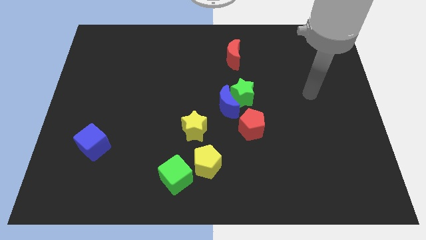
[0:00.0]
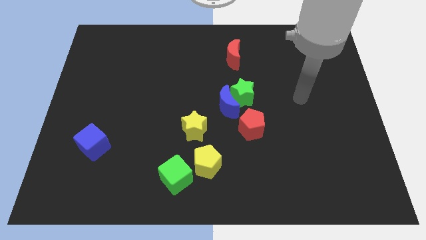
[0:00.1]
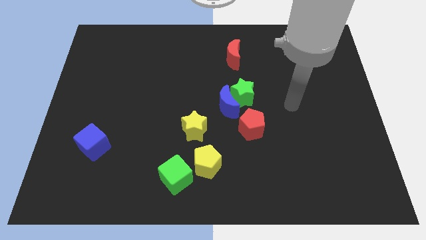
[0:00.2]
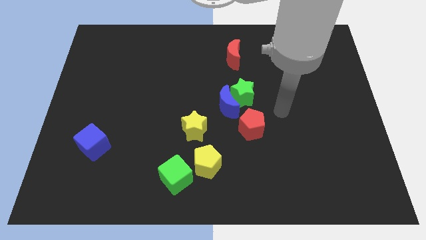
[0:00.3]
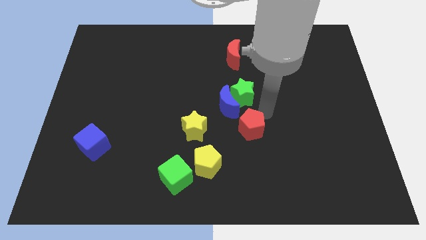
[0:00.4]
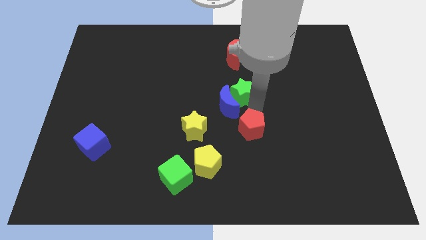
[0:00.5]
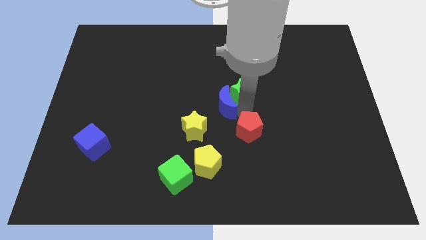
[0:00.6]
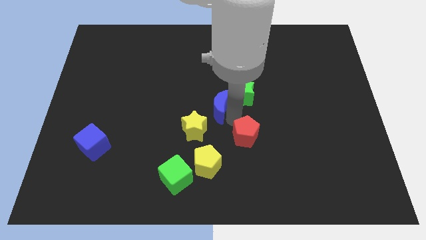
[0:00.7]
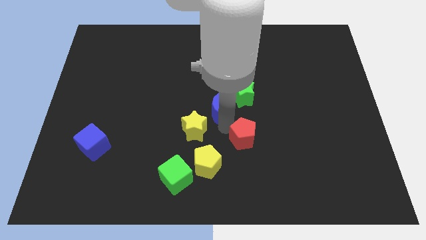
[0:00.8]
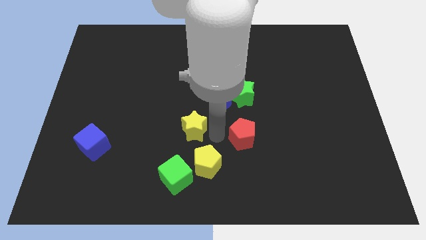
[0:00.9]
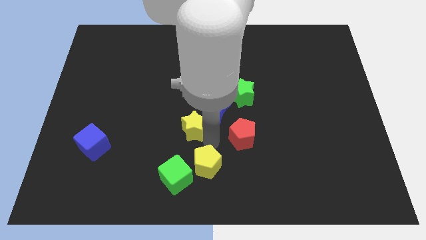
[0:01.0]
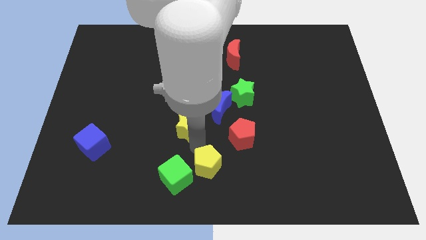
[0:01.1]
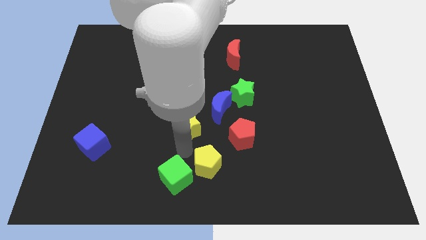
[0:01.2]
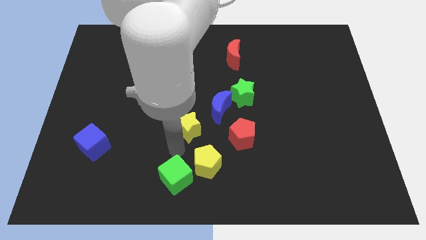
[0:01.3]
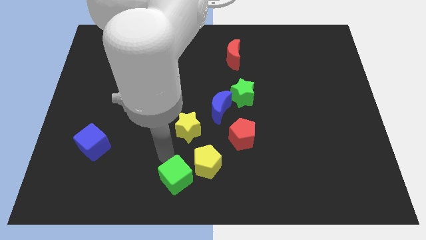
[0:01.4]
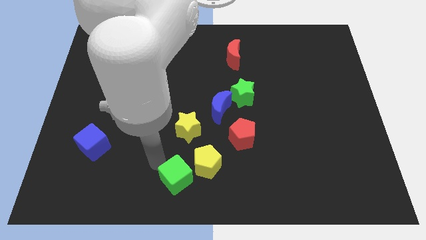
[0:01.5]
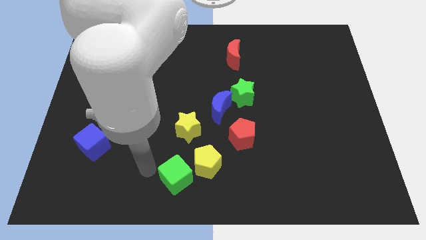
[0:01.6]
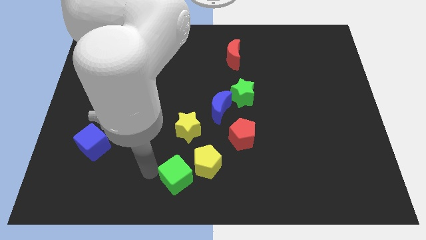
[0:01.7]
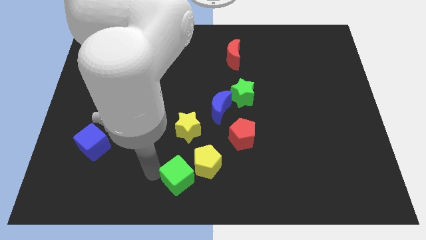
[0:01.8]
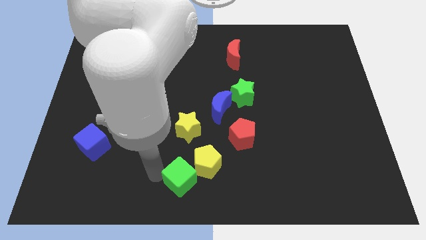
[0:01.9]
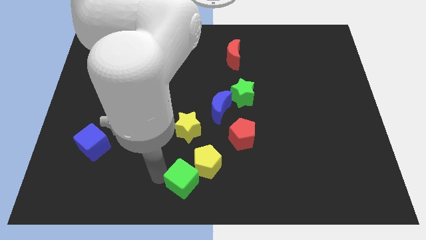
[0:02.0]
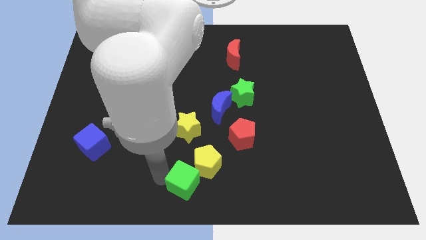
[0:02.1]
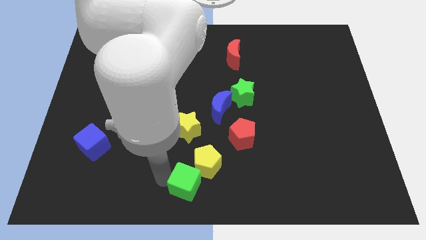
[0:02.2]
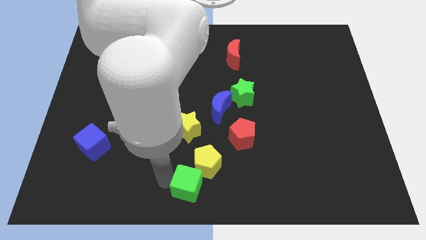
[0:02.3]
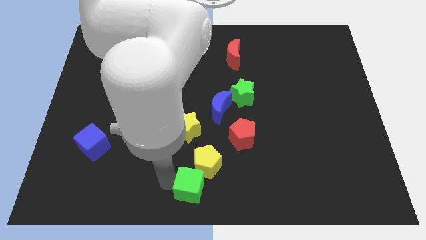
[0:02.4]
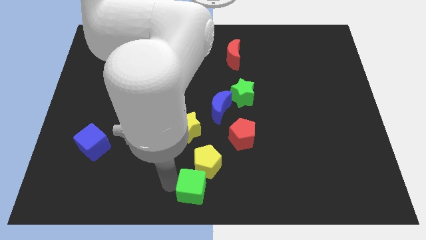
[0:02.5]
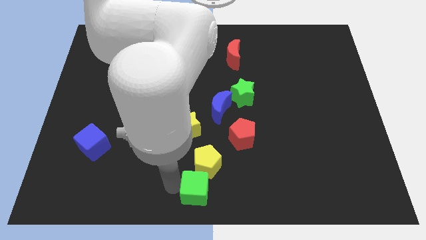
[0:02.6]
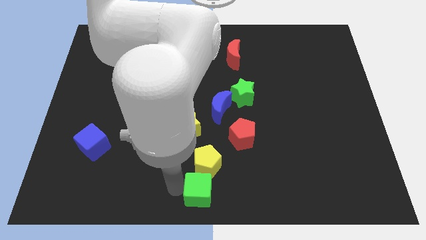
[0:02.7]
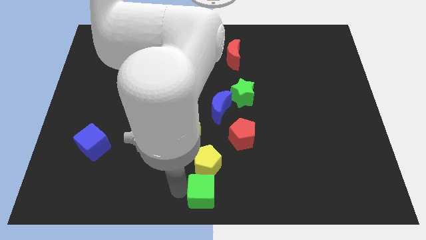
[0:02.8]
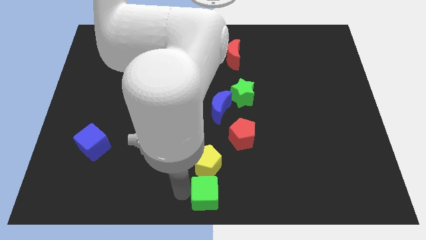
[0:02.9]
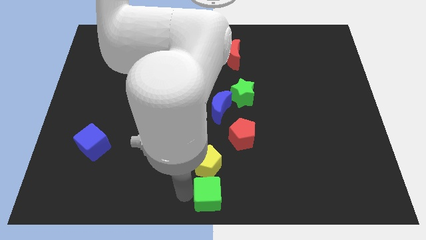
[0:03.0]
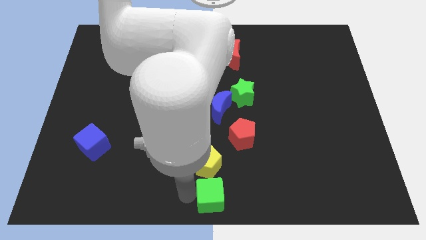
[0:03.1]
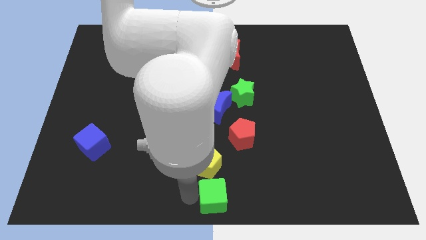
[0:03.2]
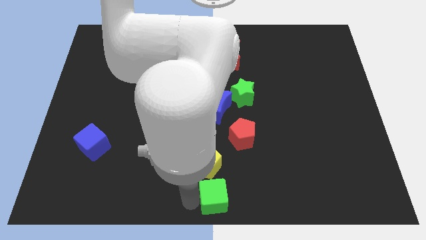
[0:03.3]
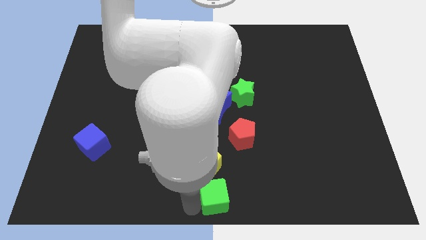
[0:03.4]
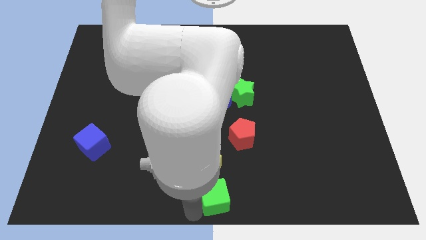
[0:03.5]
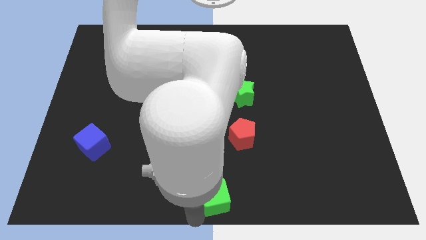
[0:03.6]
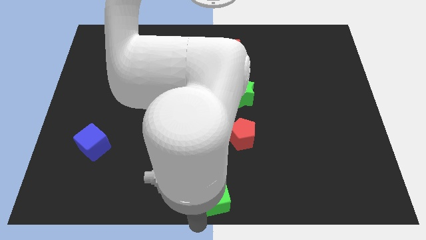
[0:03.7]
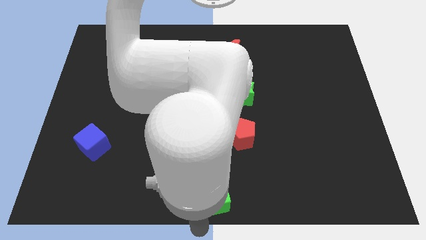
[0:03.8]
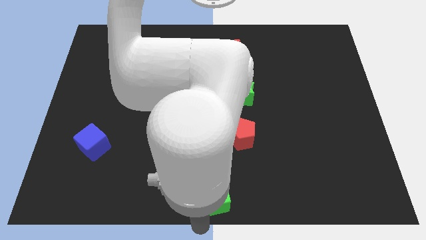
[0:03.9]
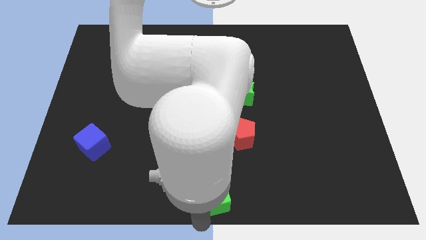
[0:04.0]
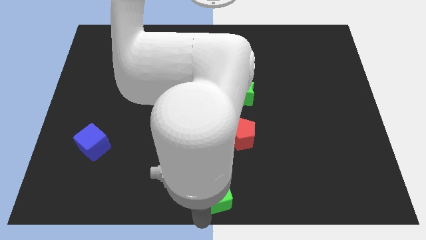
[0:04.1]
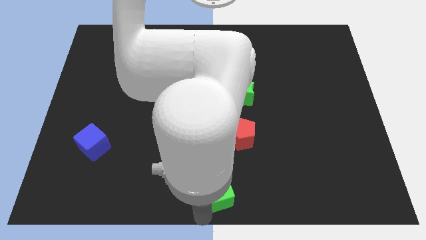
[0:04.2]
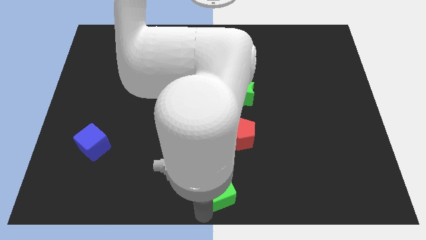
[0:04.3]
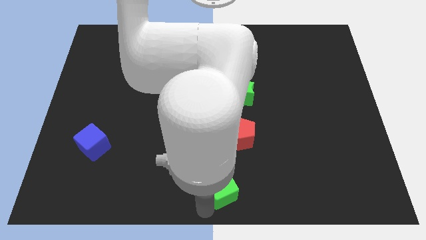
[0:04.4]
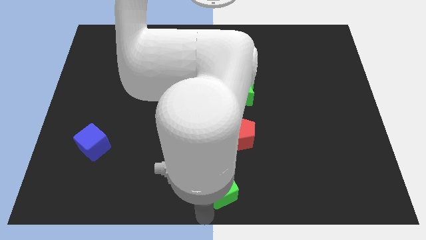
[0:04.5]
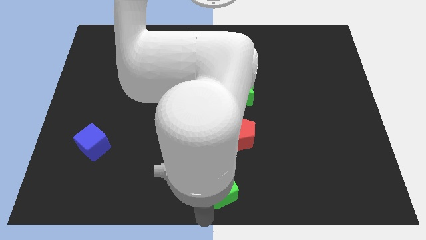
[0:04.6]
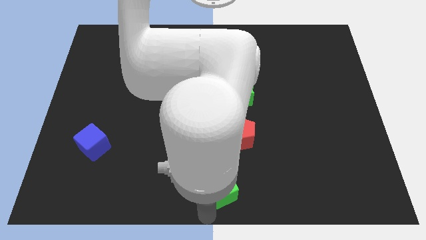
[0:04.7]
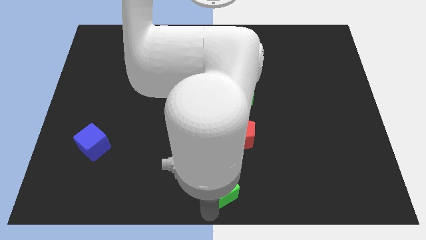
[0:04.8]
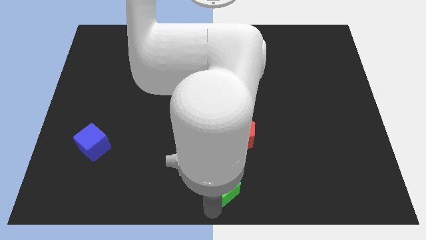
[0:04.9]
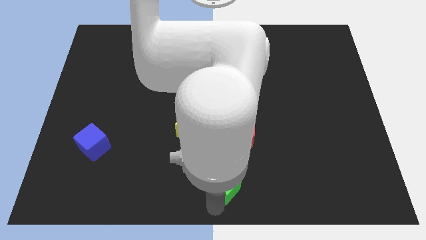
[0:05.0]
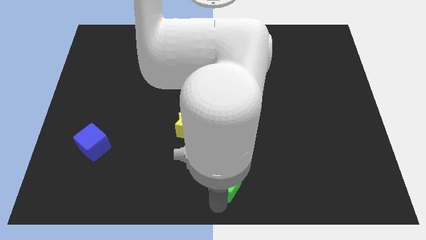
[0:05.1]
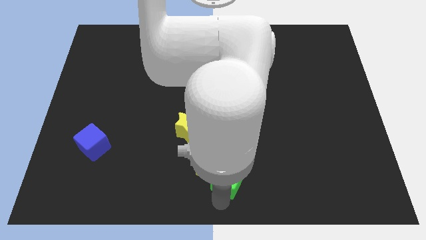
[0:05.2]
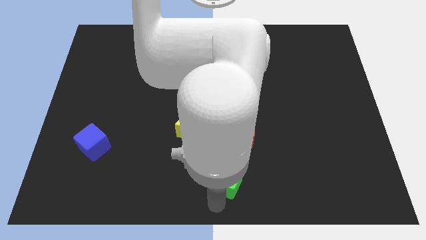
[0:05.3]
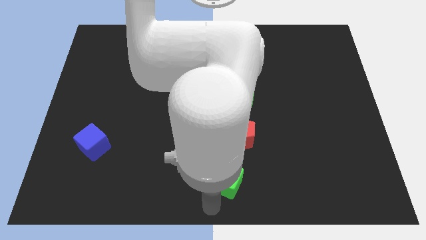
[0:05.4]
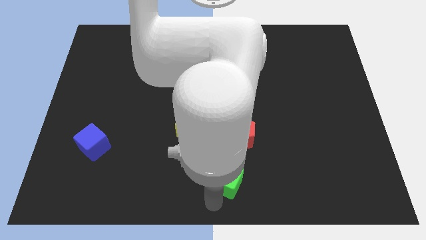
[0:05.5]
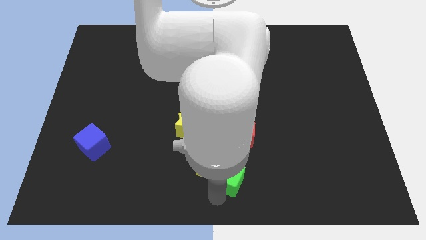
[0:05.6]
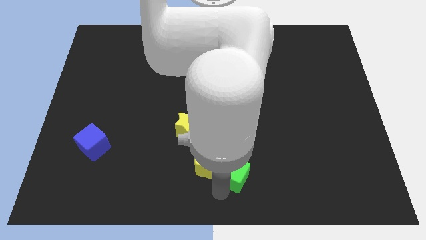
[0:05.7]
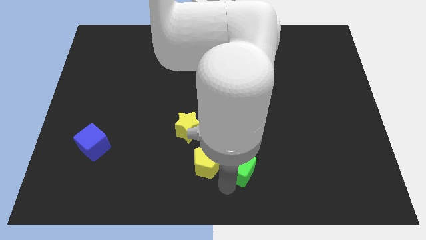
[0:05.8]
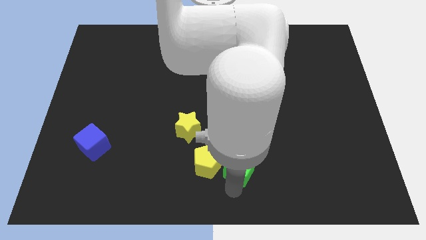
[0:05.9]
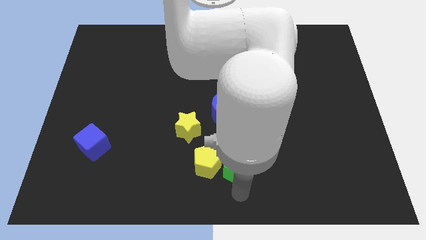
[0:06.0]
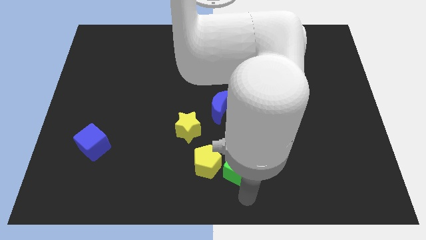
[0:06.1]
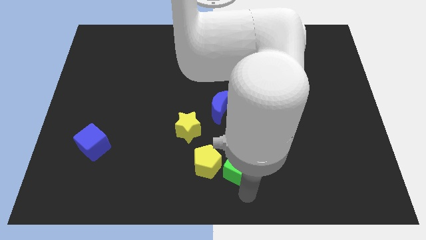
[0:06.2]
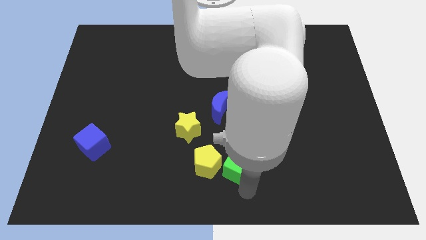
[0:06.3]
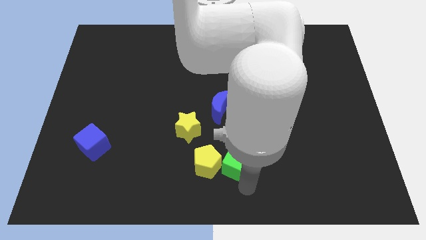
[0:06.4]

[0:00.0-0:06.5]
put the green cube diagonally up and to the right of the yellow pentagon

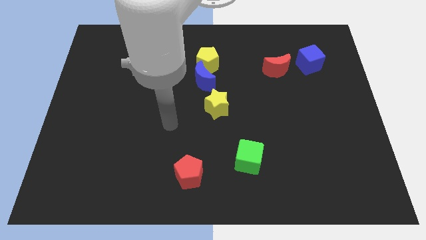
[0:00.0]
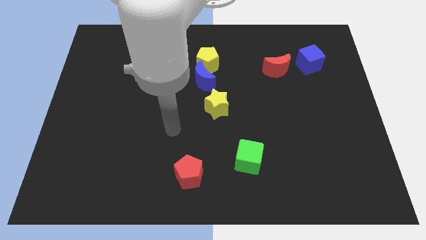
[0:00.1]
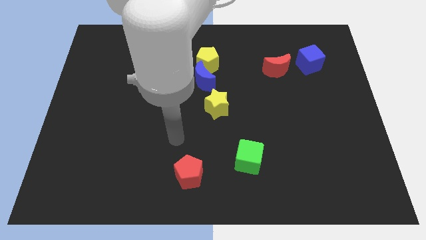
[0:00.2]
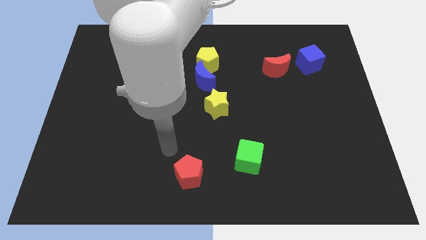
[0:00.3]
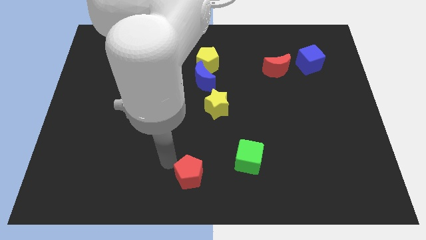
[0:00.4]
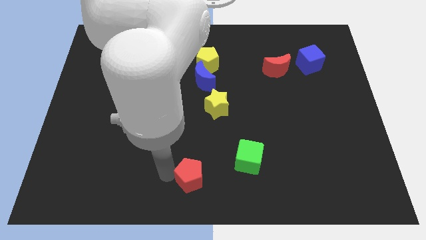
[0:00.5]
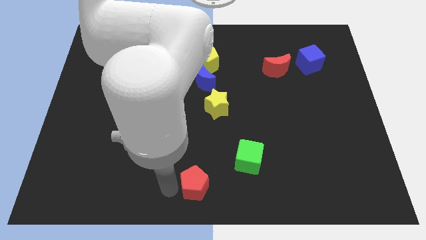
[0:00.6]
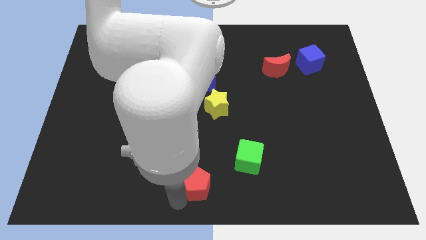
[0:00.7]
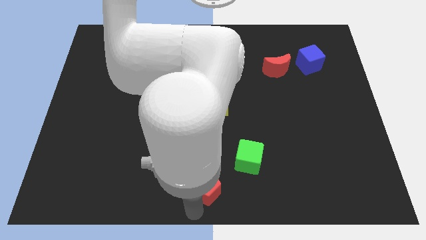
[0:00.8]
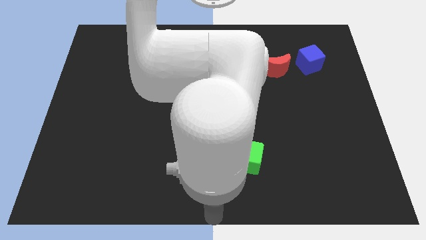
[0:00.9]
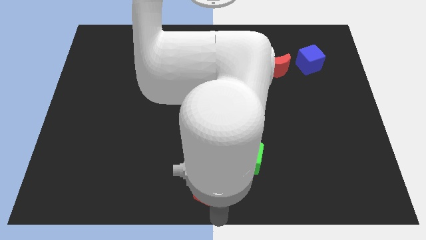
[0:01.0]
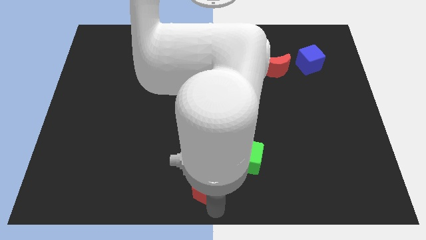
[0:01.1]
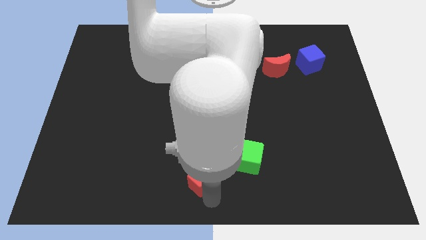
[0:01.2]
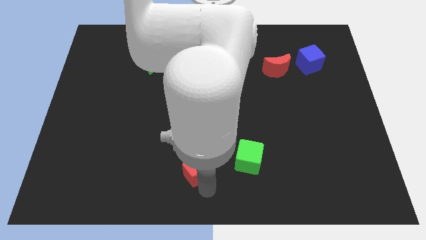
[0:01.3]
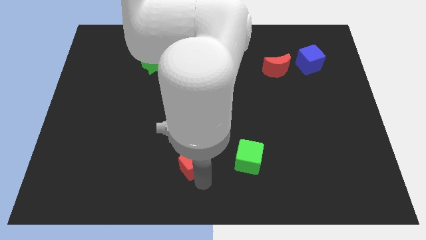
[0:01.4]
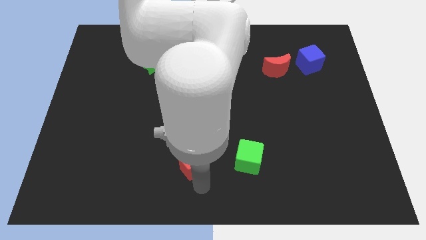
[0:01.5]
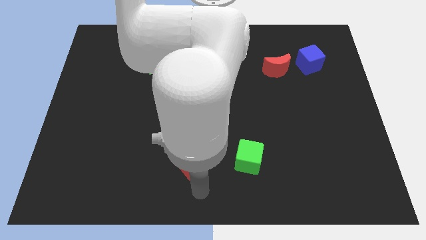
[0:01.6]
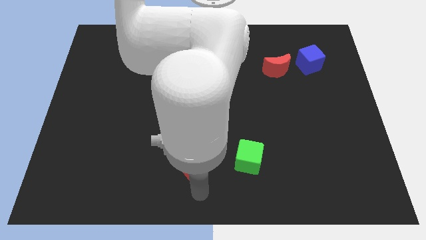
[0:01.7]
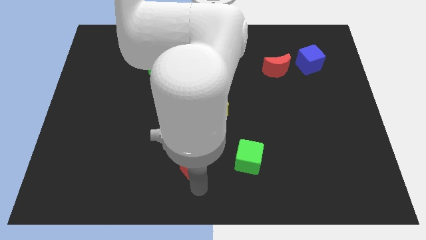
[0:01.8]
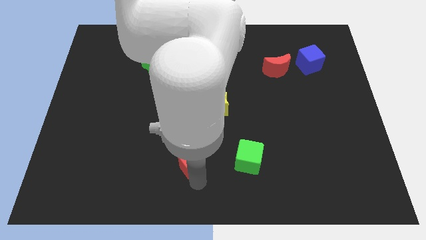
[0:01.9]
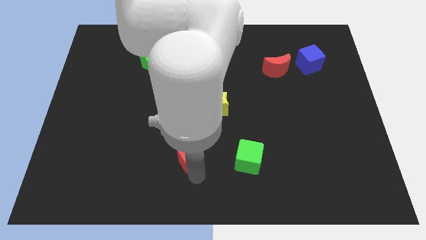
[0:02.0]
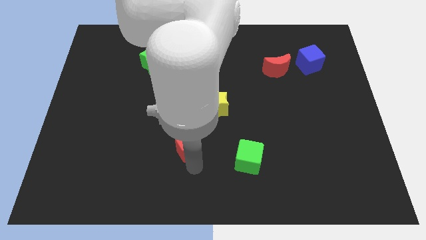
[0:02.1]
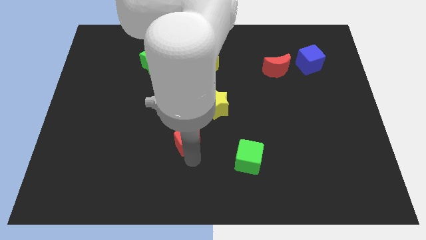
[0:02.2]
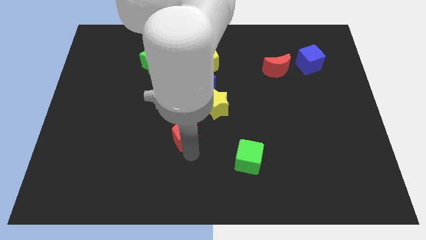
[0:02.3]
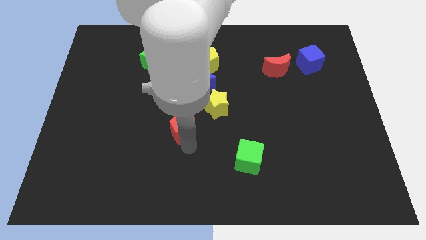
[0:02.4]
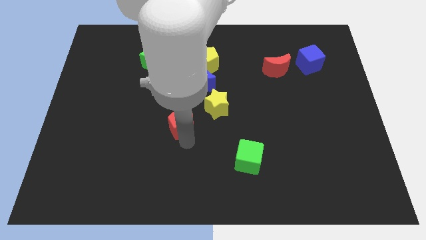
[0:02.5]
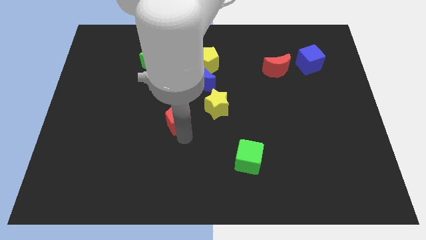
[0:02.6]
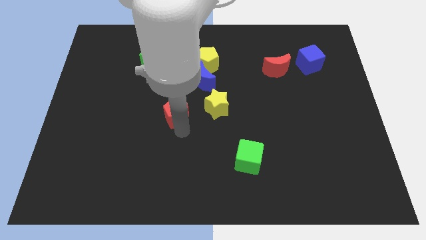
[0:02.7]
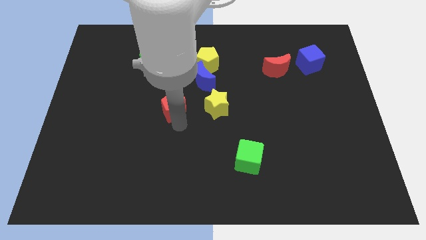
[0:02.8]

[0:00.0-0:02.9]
move the red pentagon to the bottom left side of the blue moon
